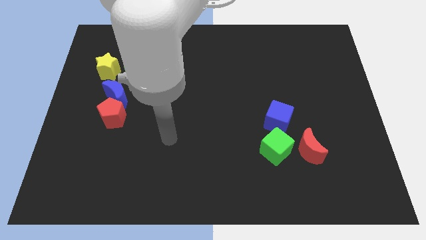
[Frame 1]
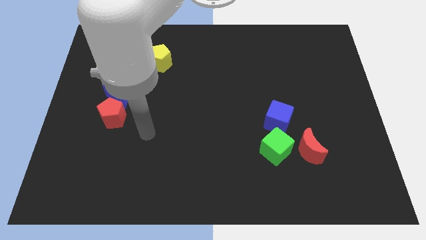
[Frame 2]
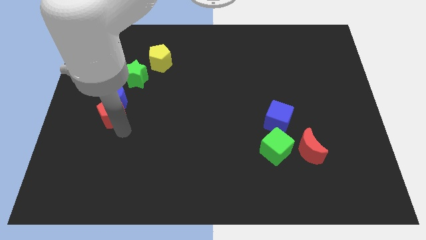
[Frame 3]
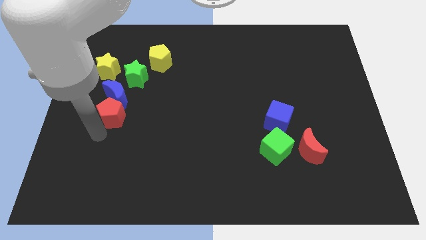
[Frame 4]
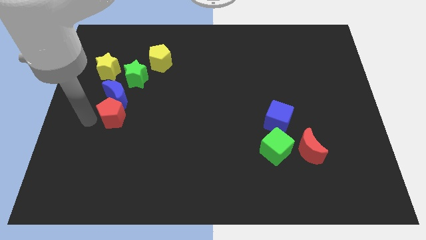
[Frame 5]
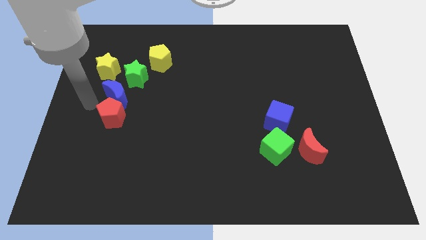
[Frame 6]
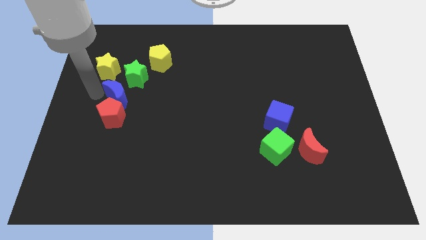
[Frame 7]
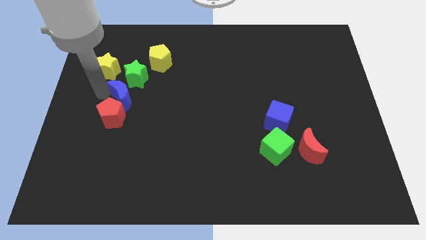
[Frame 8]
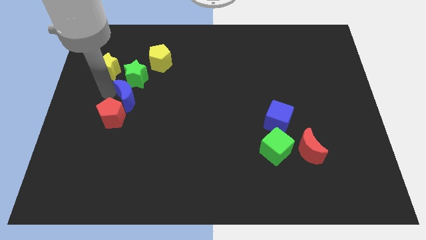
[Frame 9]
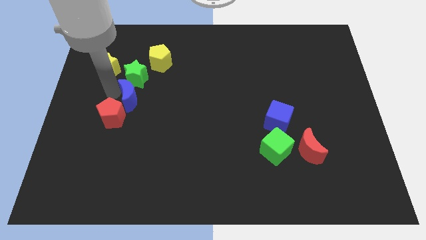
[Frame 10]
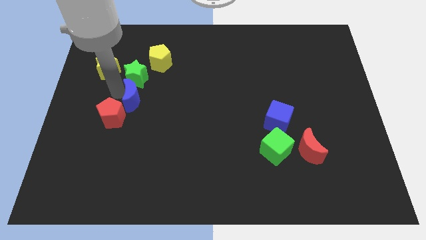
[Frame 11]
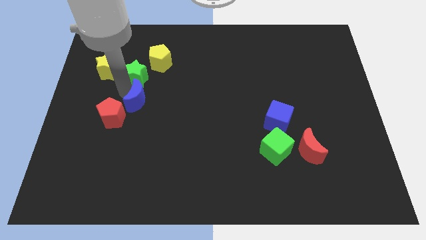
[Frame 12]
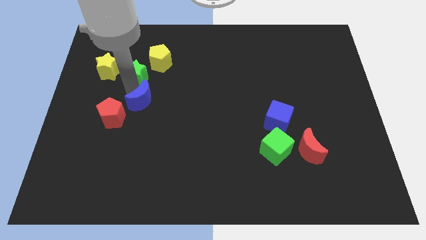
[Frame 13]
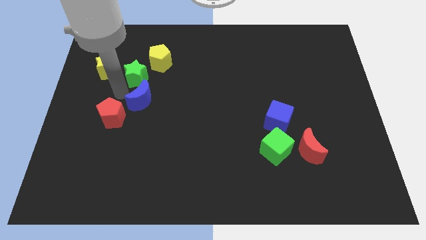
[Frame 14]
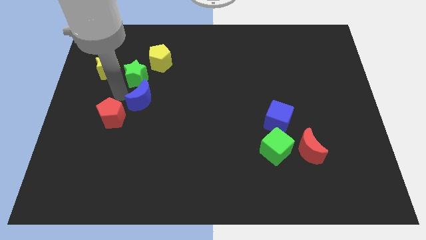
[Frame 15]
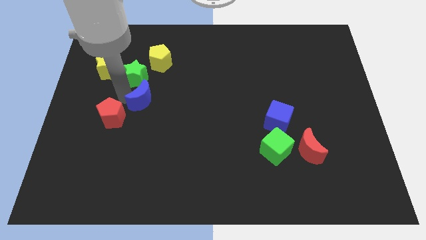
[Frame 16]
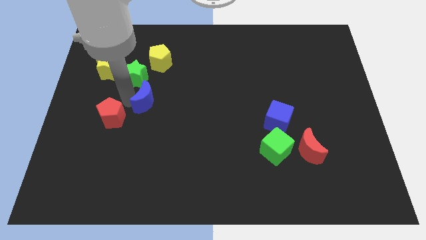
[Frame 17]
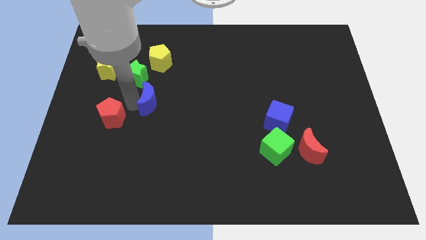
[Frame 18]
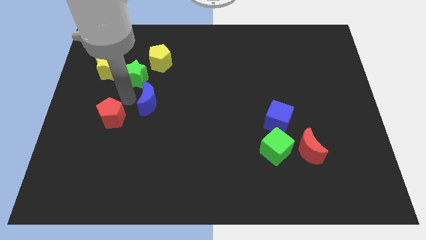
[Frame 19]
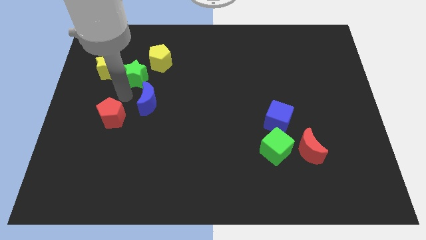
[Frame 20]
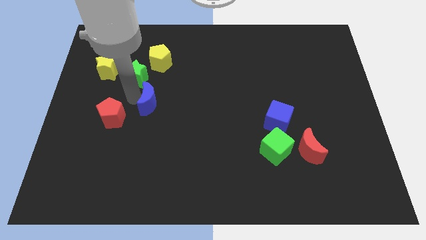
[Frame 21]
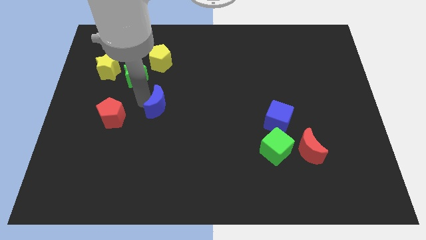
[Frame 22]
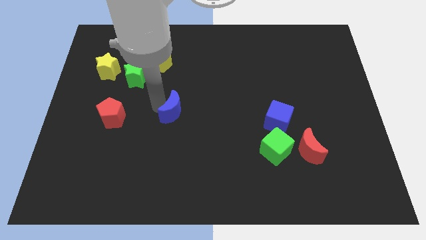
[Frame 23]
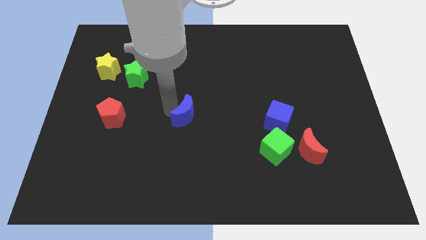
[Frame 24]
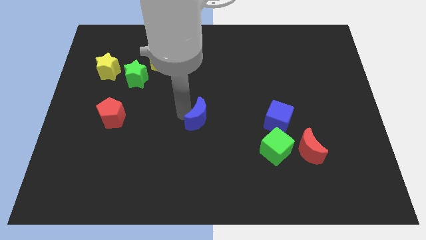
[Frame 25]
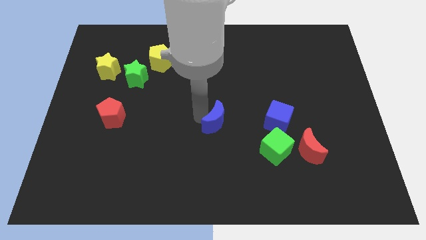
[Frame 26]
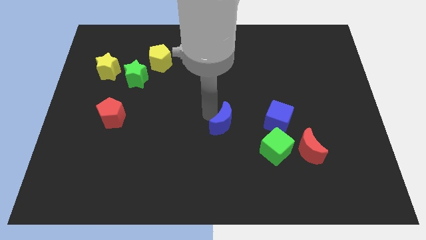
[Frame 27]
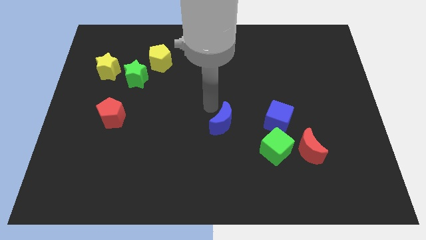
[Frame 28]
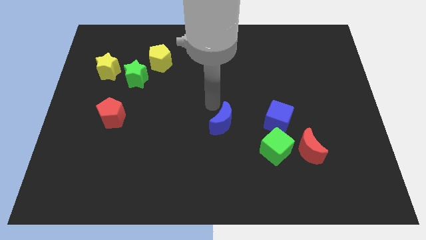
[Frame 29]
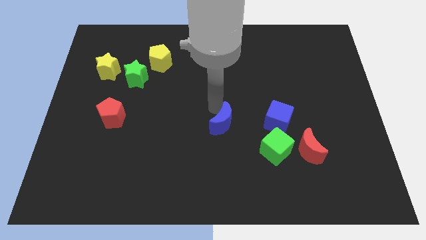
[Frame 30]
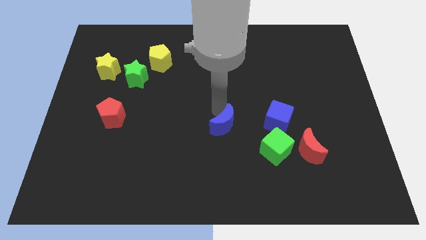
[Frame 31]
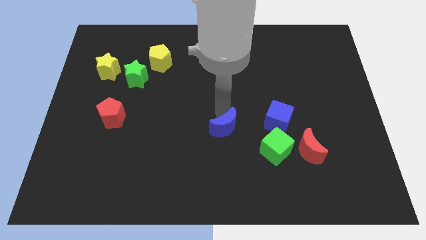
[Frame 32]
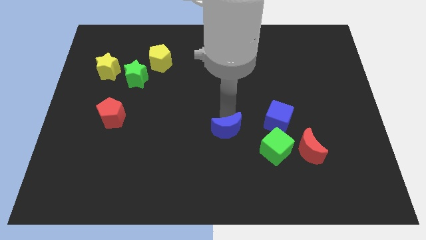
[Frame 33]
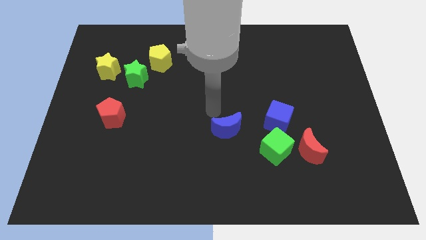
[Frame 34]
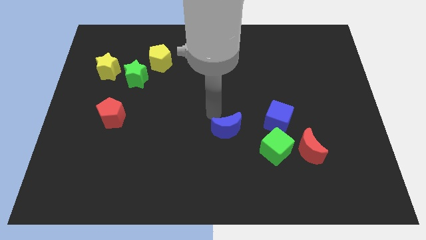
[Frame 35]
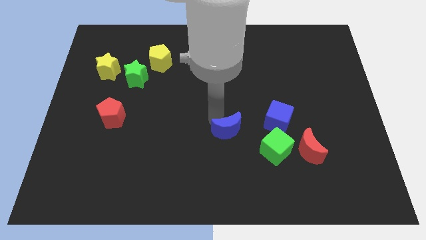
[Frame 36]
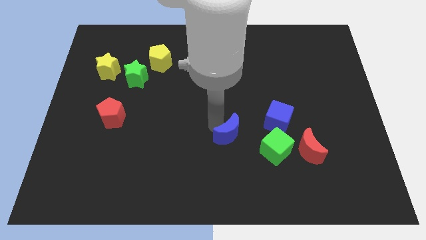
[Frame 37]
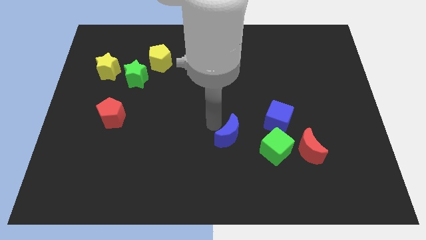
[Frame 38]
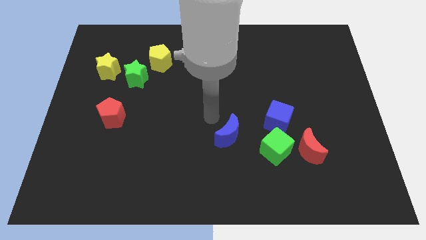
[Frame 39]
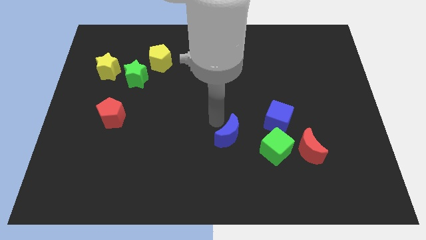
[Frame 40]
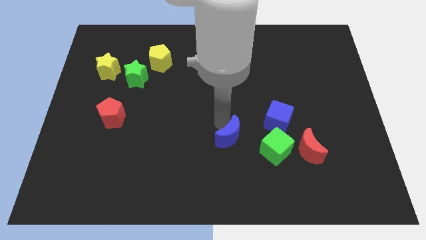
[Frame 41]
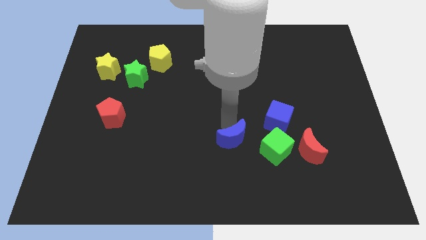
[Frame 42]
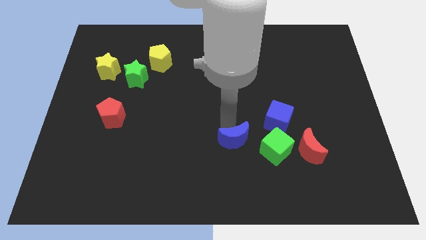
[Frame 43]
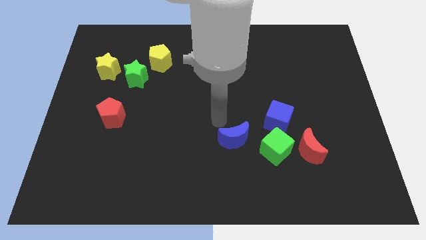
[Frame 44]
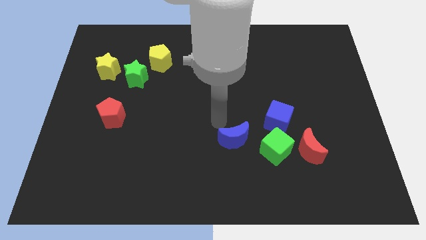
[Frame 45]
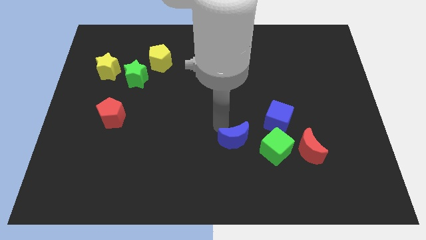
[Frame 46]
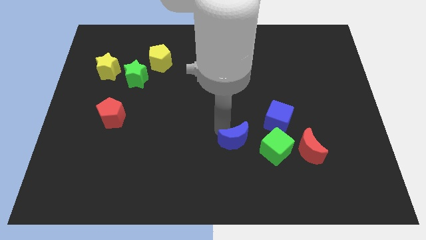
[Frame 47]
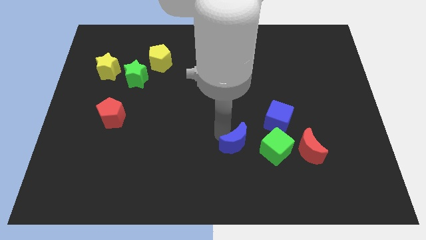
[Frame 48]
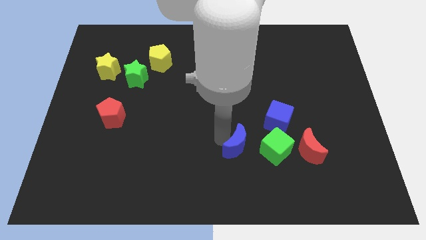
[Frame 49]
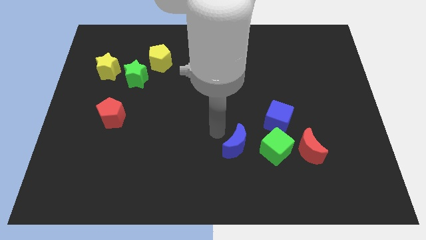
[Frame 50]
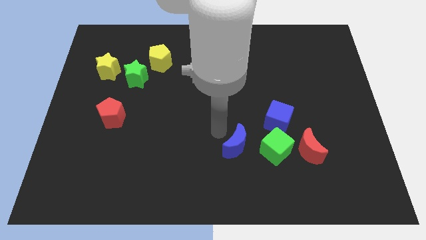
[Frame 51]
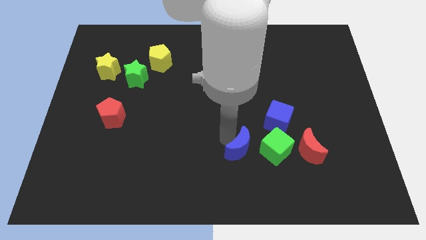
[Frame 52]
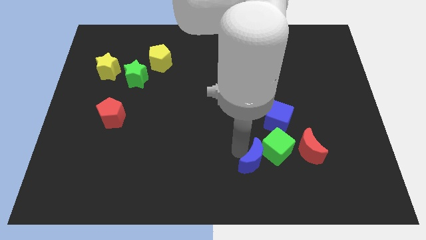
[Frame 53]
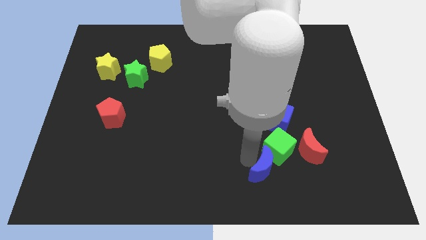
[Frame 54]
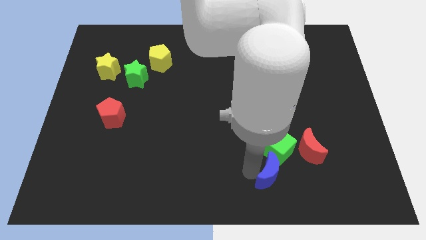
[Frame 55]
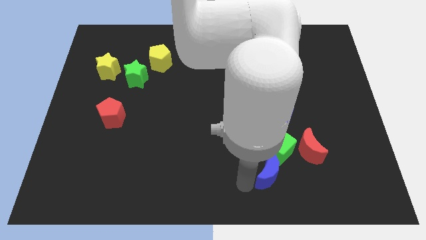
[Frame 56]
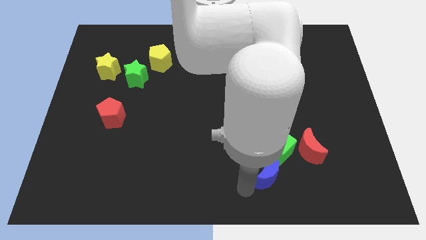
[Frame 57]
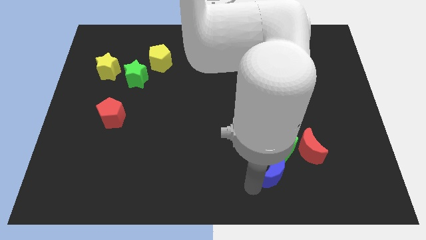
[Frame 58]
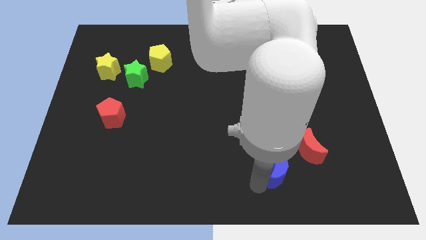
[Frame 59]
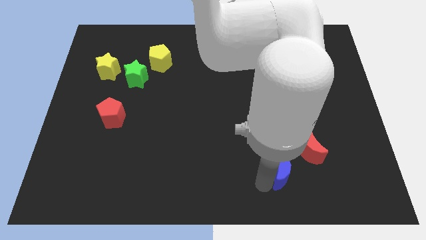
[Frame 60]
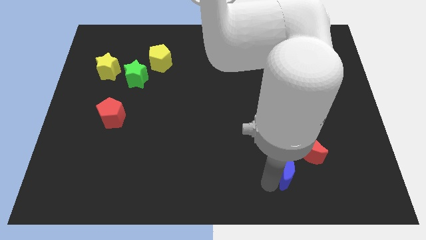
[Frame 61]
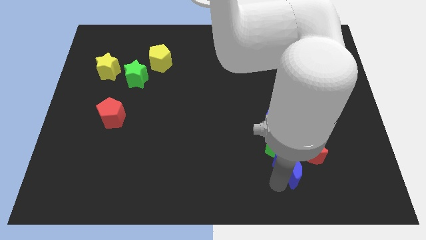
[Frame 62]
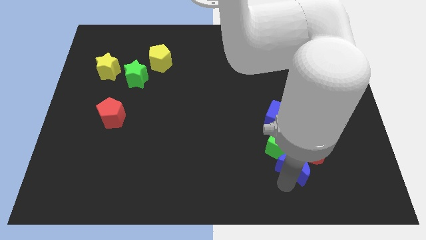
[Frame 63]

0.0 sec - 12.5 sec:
slide the blue moon close to the red moon

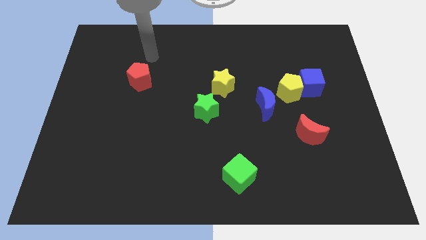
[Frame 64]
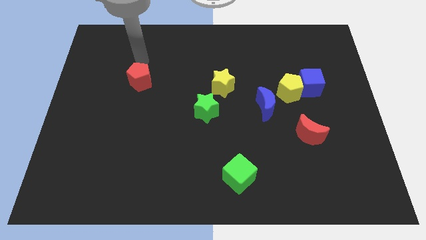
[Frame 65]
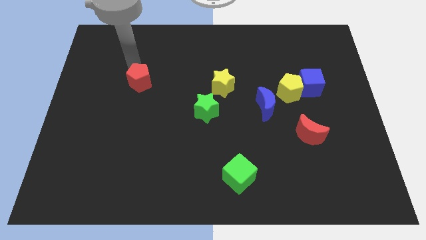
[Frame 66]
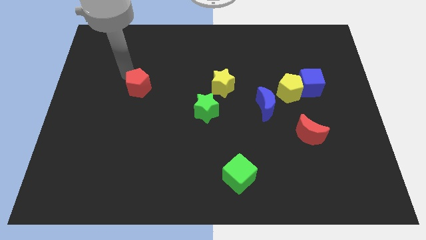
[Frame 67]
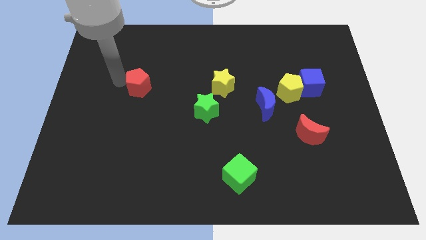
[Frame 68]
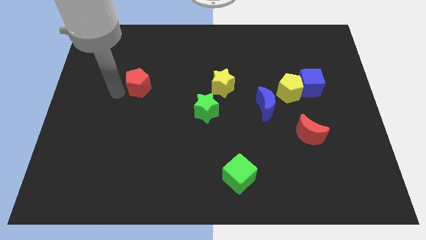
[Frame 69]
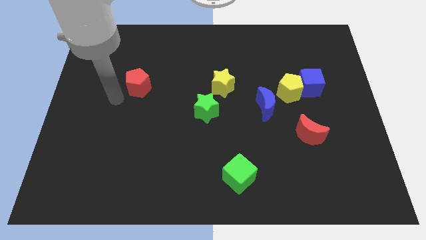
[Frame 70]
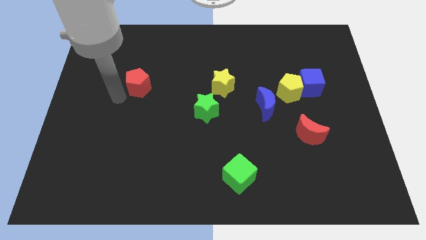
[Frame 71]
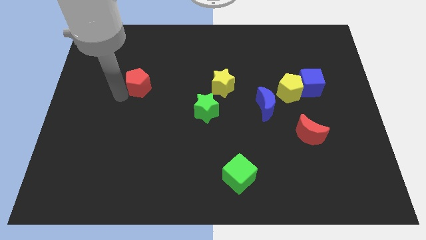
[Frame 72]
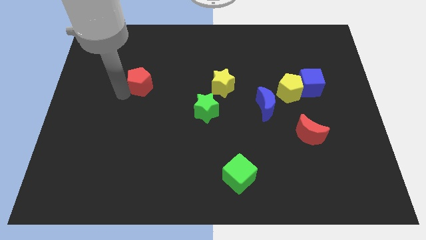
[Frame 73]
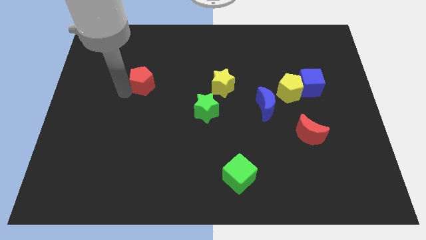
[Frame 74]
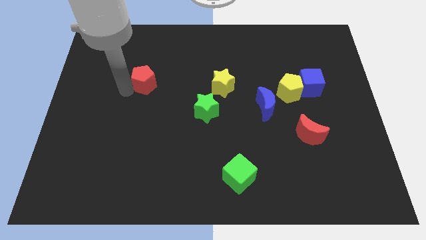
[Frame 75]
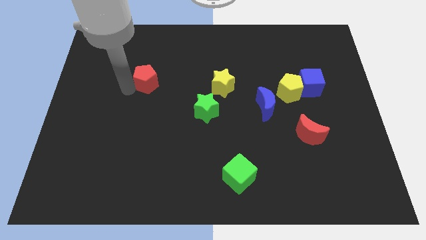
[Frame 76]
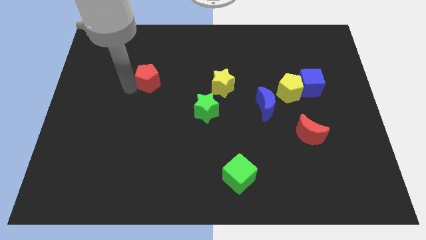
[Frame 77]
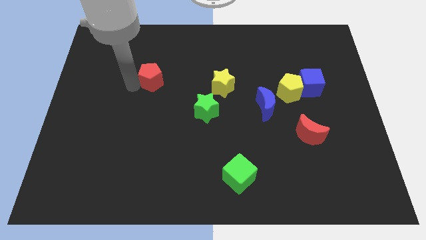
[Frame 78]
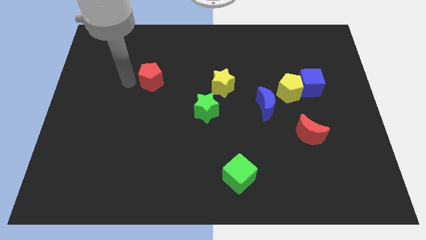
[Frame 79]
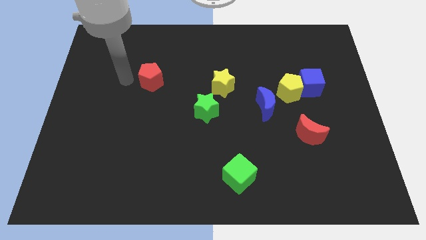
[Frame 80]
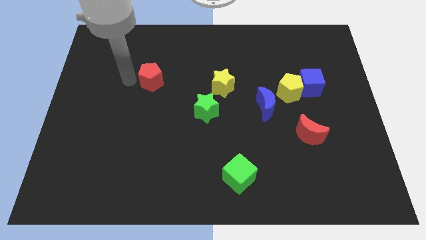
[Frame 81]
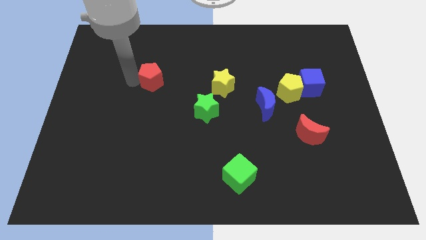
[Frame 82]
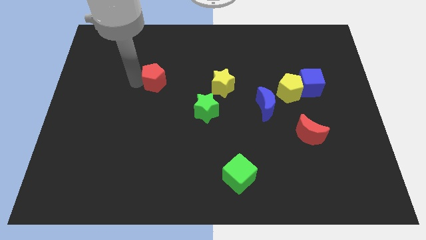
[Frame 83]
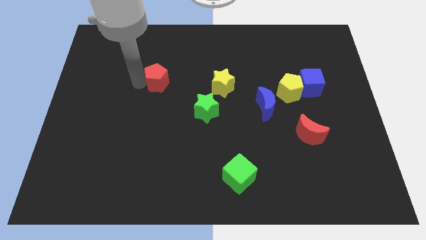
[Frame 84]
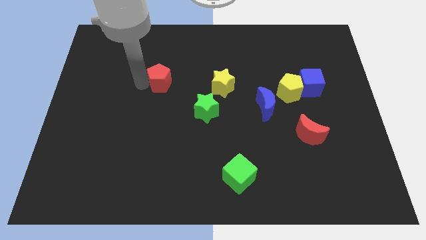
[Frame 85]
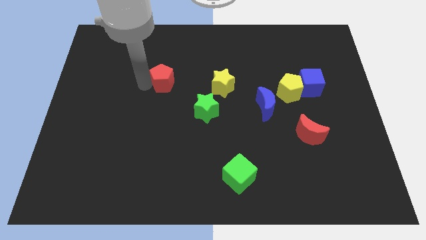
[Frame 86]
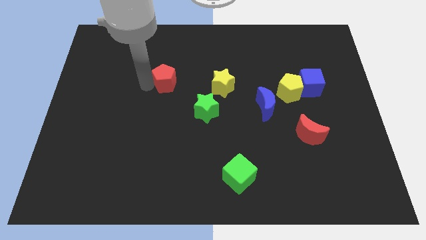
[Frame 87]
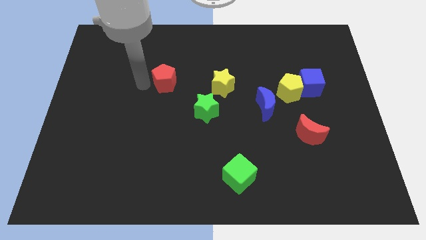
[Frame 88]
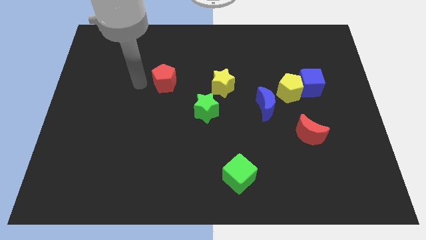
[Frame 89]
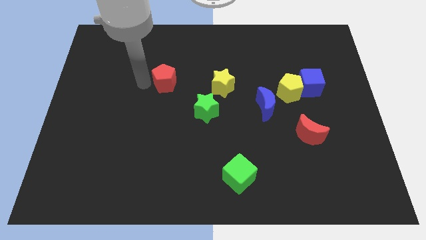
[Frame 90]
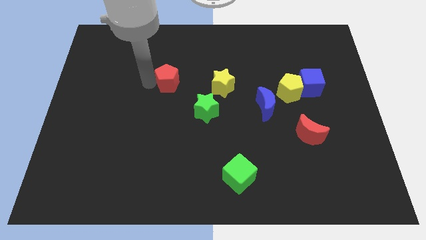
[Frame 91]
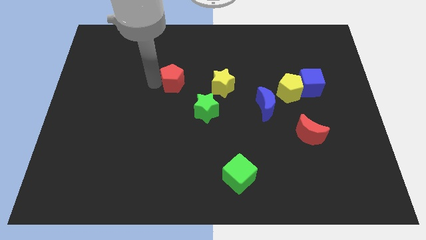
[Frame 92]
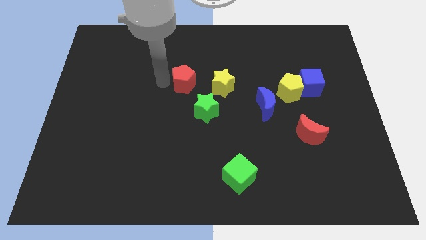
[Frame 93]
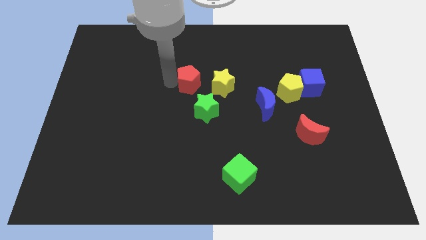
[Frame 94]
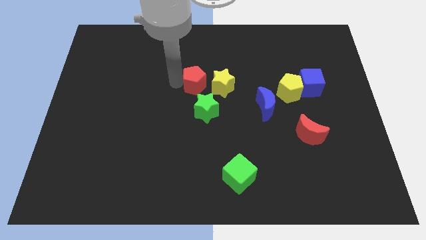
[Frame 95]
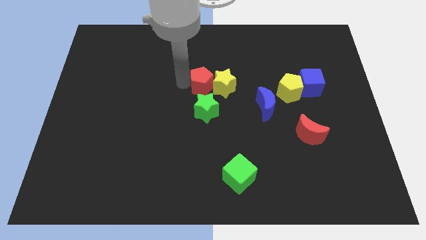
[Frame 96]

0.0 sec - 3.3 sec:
move the red pentagon towards the yellow star
